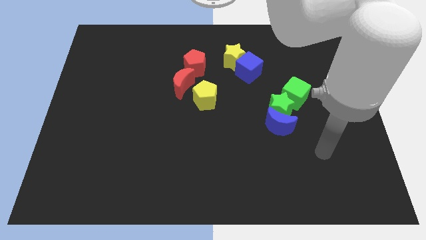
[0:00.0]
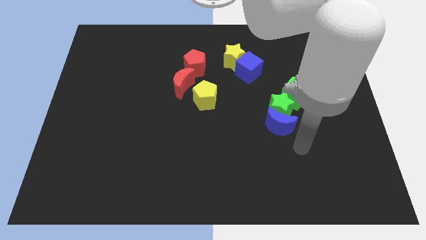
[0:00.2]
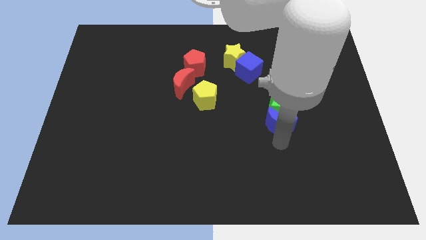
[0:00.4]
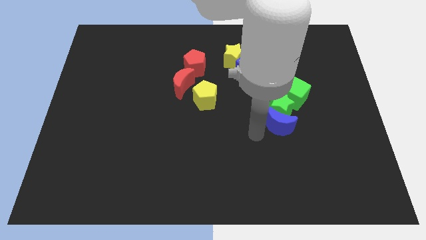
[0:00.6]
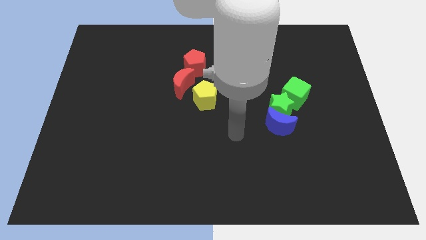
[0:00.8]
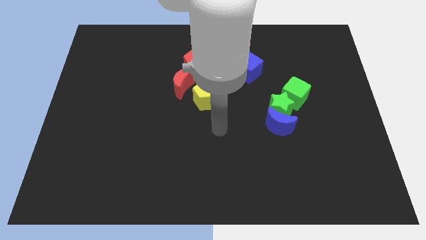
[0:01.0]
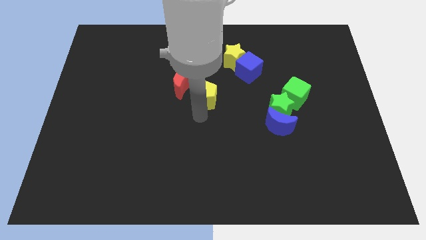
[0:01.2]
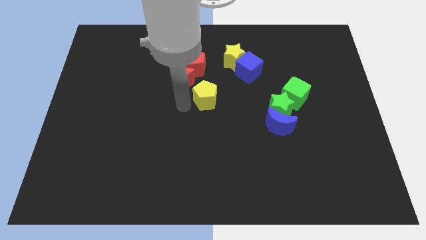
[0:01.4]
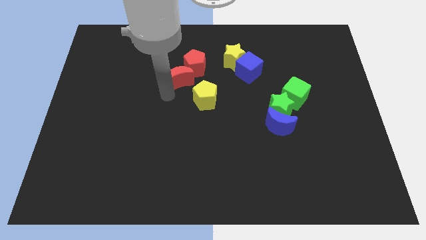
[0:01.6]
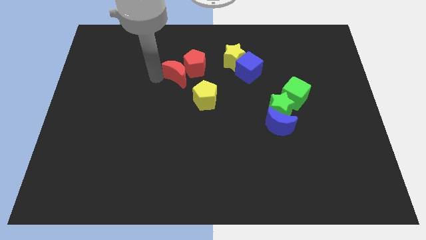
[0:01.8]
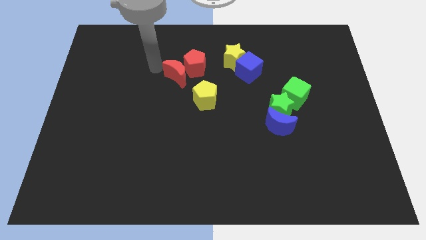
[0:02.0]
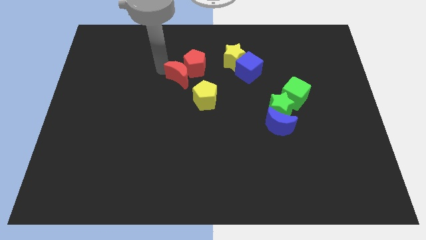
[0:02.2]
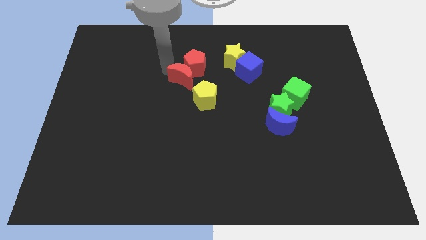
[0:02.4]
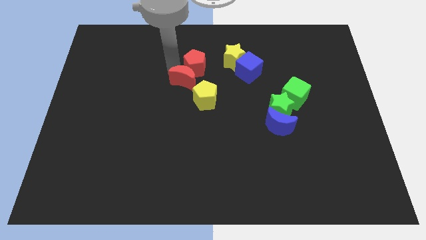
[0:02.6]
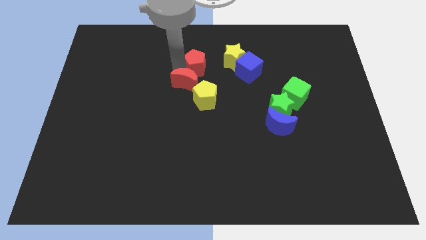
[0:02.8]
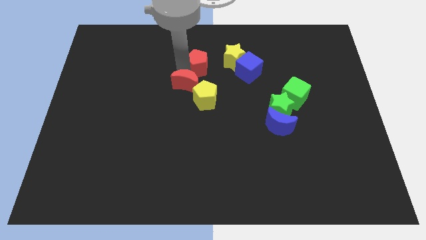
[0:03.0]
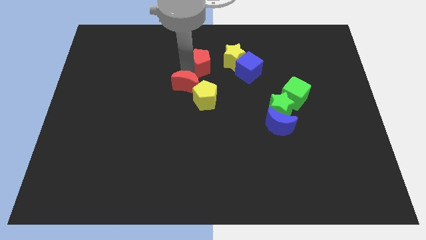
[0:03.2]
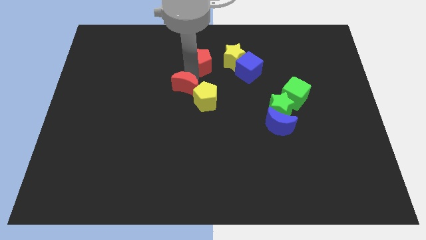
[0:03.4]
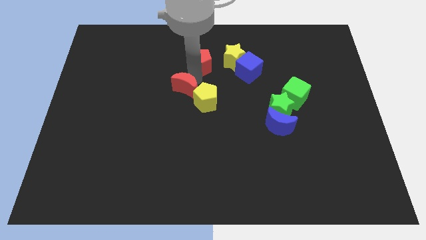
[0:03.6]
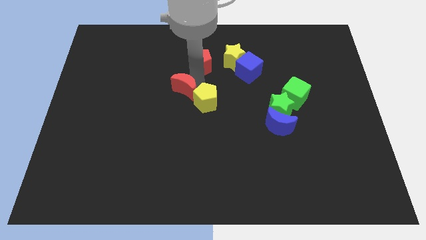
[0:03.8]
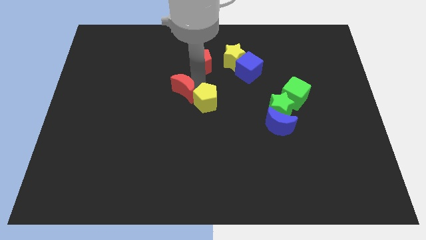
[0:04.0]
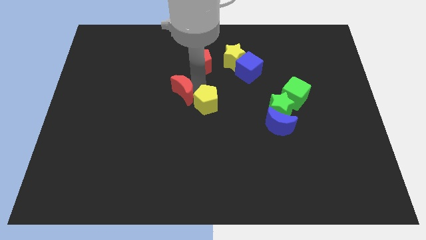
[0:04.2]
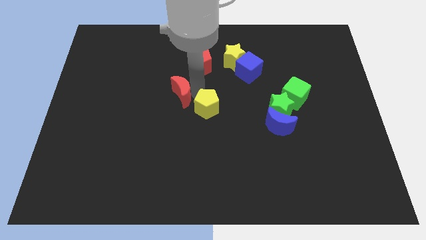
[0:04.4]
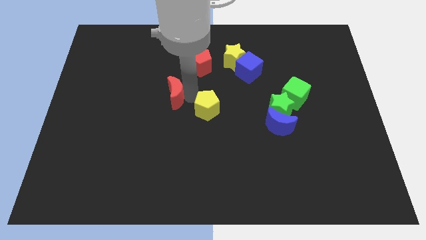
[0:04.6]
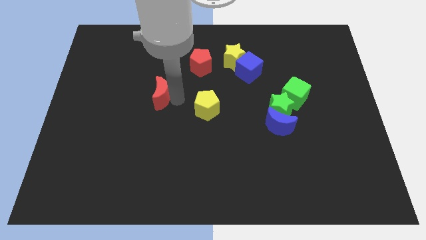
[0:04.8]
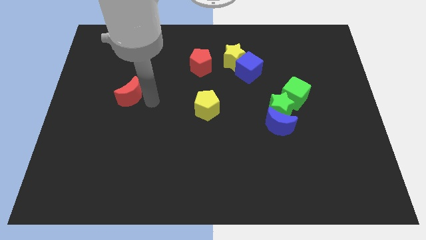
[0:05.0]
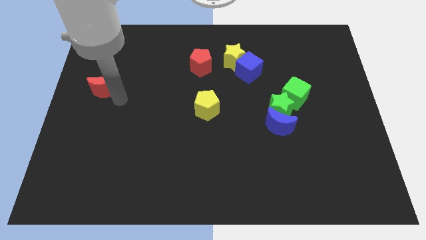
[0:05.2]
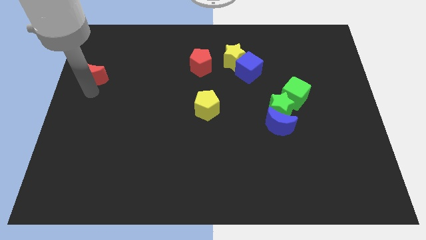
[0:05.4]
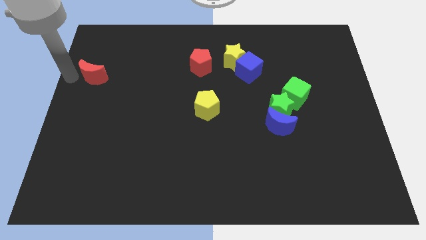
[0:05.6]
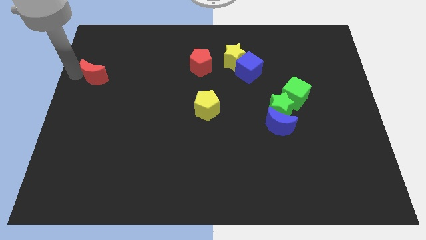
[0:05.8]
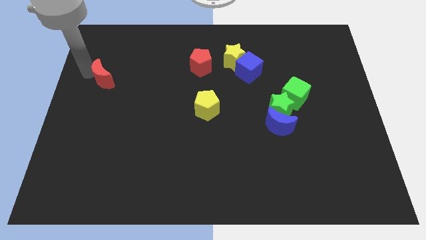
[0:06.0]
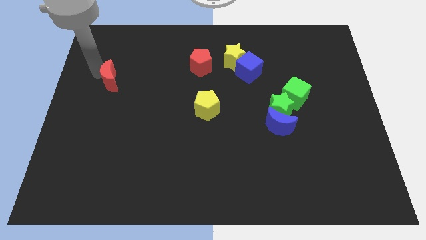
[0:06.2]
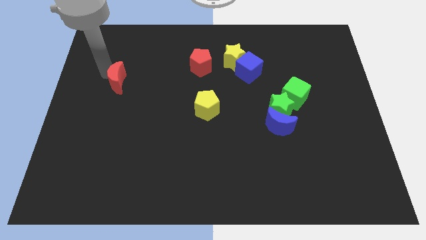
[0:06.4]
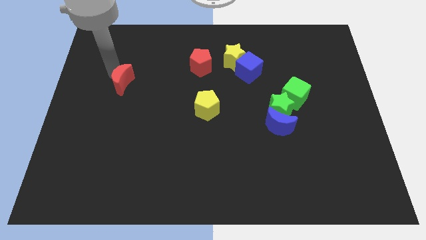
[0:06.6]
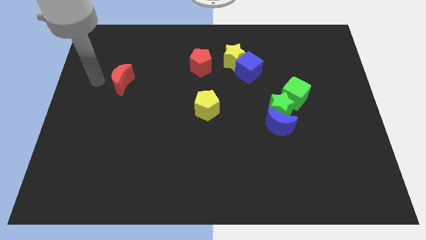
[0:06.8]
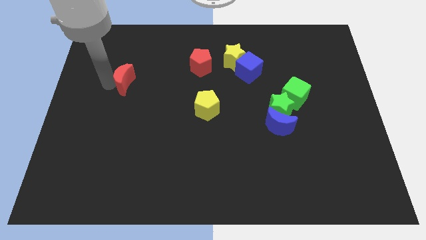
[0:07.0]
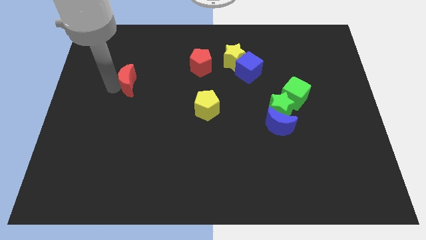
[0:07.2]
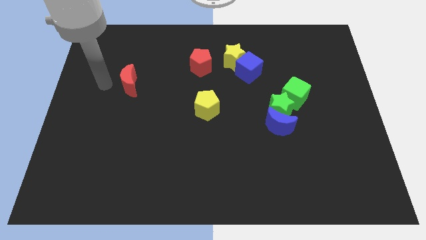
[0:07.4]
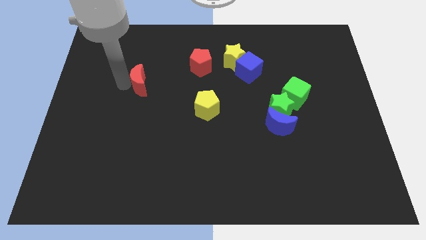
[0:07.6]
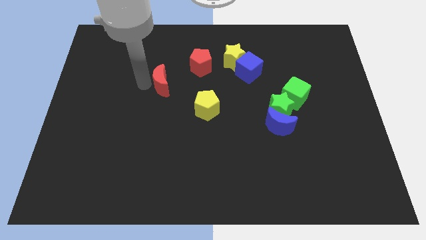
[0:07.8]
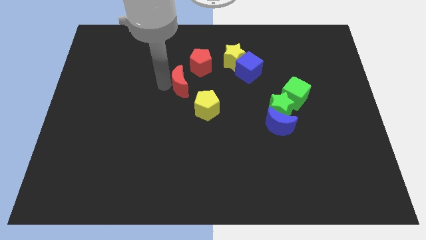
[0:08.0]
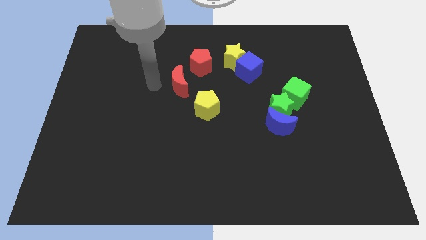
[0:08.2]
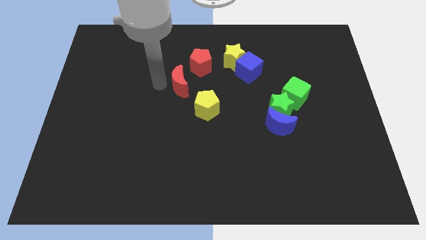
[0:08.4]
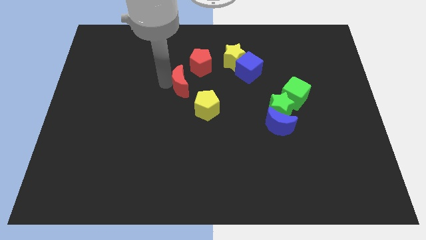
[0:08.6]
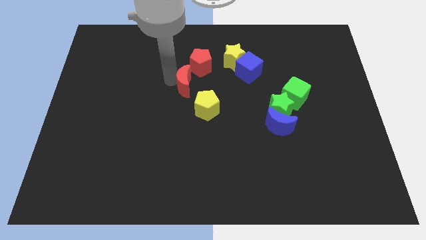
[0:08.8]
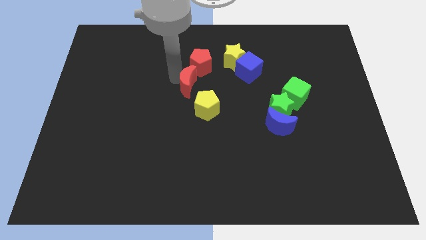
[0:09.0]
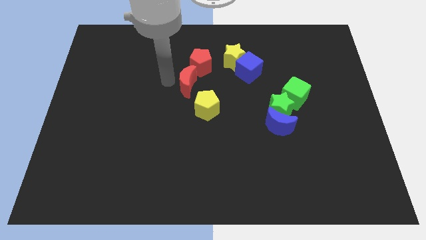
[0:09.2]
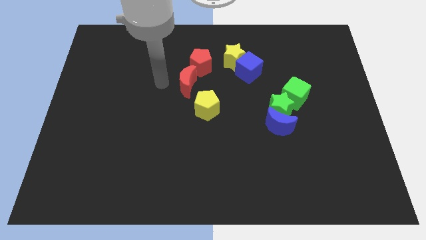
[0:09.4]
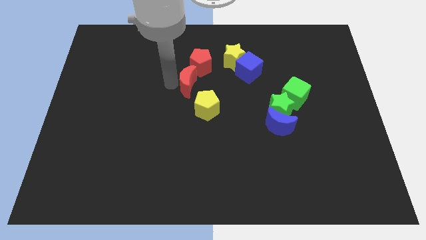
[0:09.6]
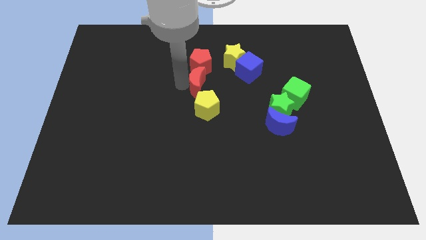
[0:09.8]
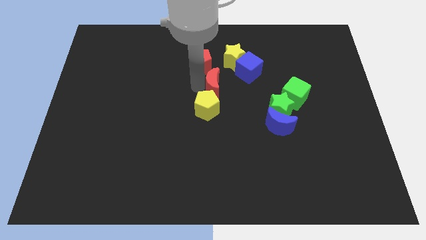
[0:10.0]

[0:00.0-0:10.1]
slide the red moon right a little bit

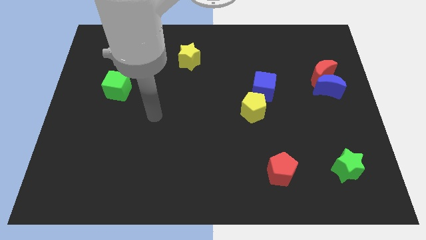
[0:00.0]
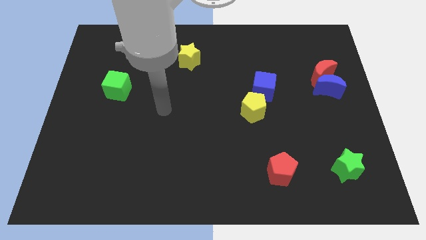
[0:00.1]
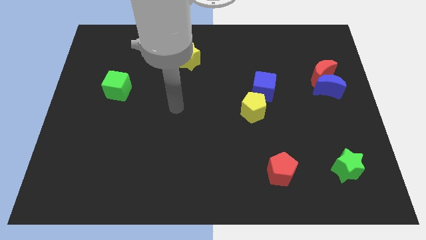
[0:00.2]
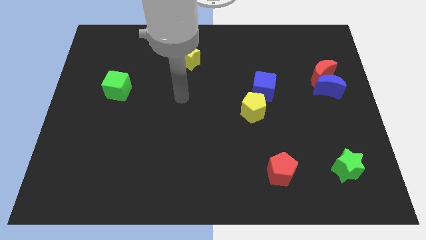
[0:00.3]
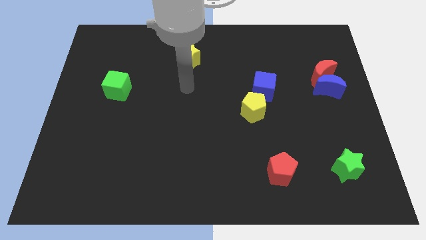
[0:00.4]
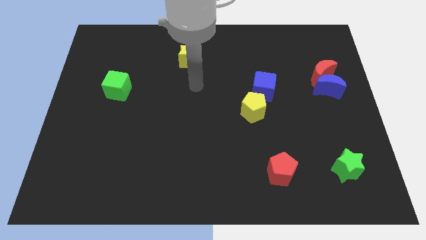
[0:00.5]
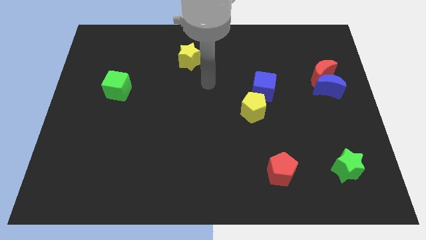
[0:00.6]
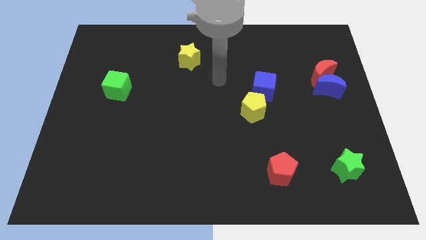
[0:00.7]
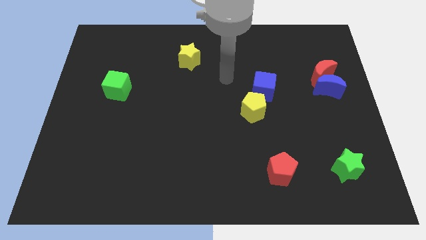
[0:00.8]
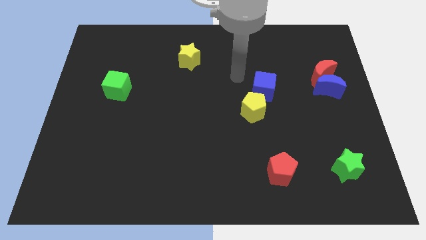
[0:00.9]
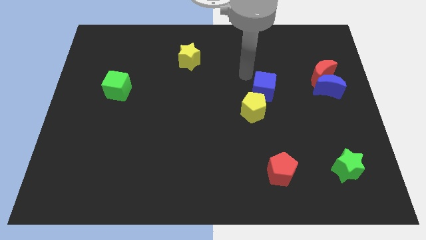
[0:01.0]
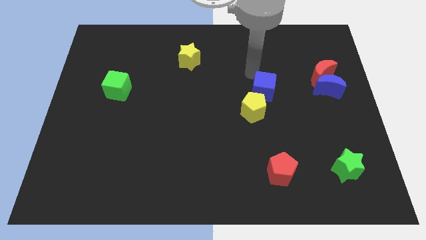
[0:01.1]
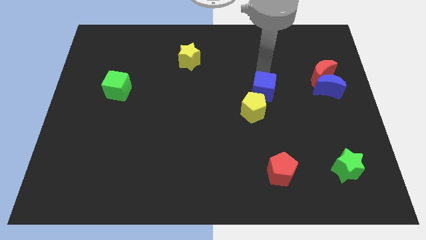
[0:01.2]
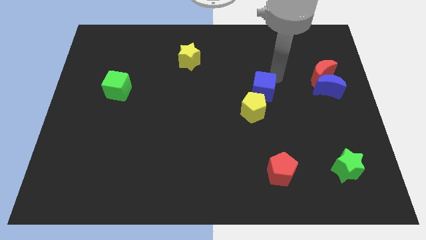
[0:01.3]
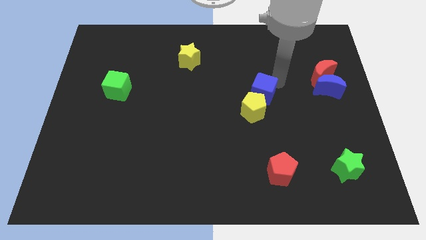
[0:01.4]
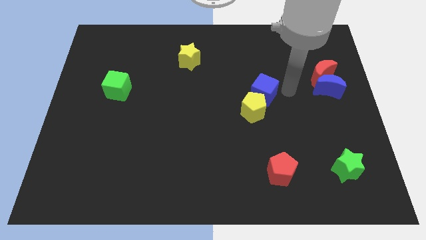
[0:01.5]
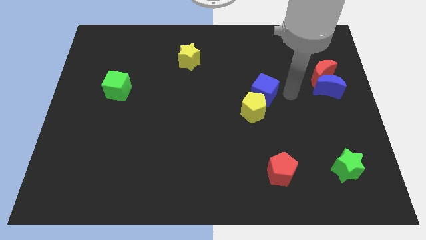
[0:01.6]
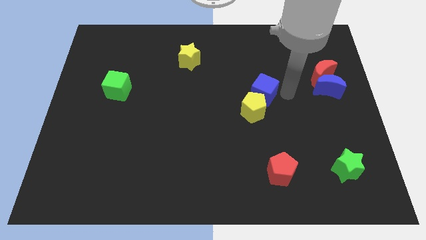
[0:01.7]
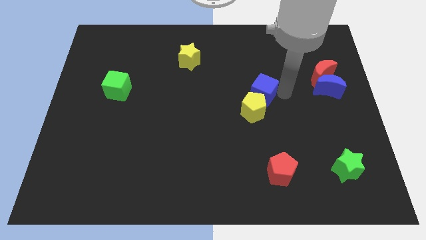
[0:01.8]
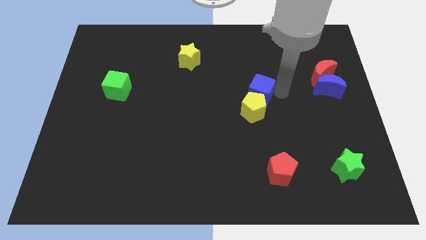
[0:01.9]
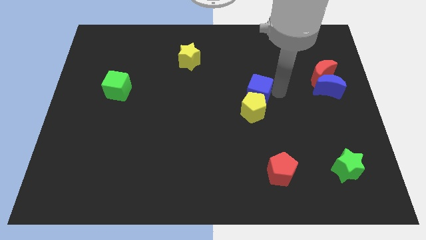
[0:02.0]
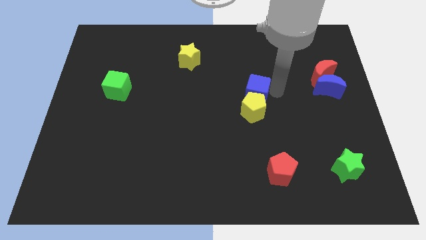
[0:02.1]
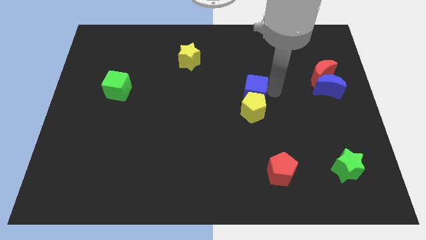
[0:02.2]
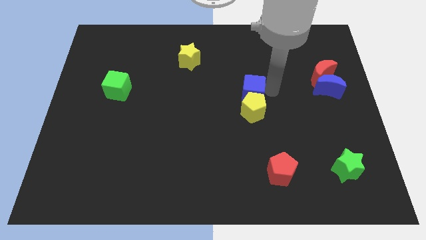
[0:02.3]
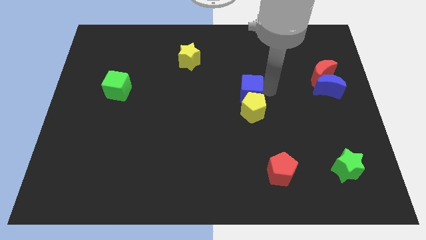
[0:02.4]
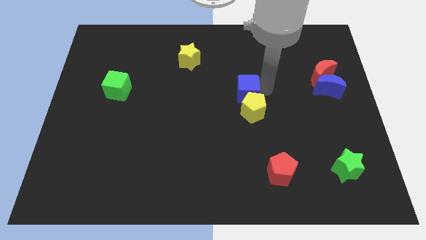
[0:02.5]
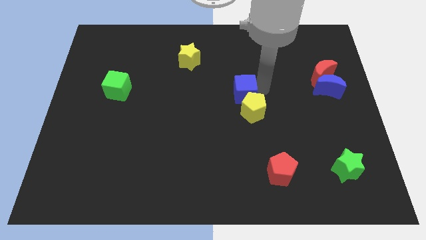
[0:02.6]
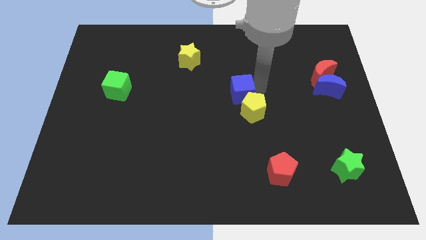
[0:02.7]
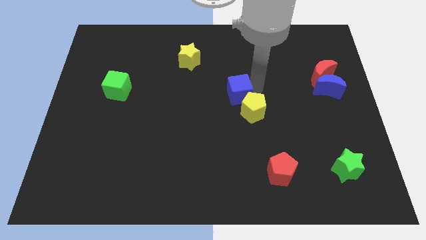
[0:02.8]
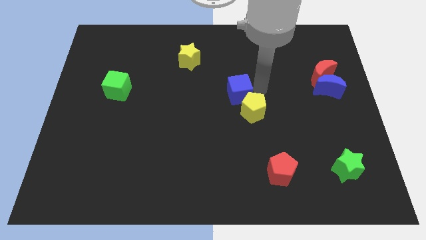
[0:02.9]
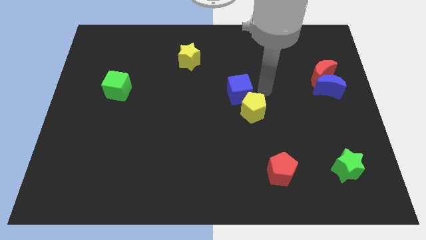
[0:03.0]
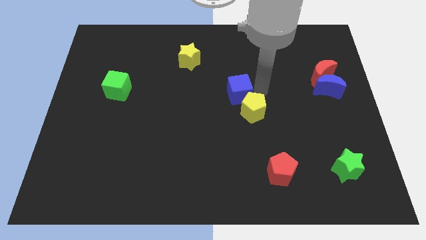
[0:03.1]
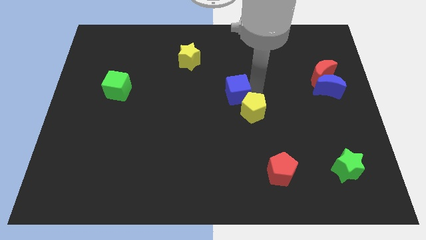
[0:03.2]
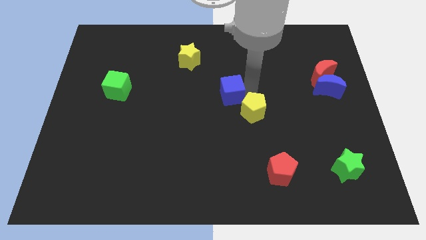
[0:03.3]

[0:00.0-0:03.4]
push the blue cube a bit left
